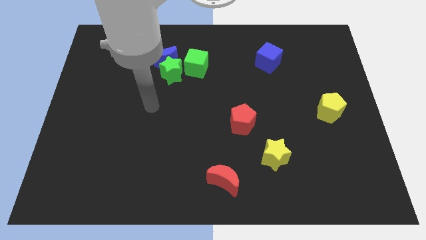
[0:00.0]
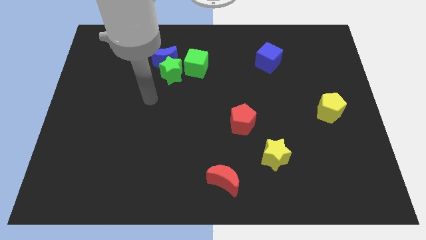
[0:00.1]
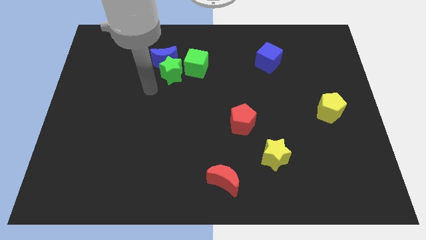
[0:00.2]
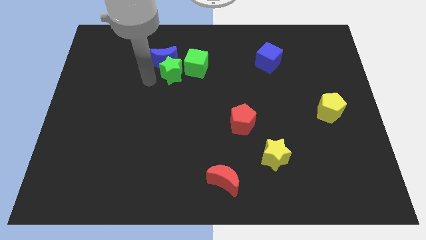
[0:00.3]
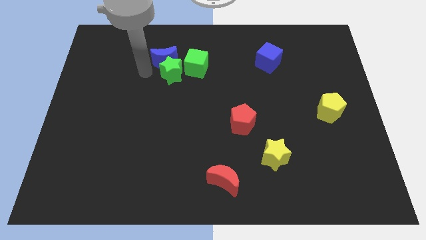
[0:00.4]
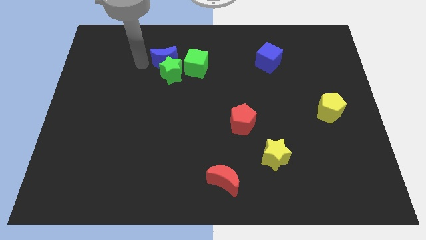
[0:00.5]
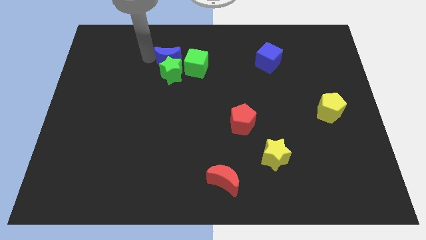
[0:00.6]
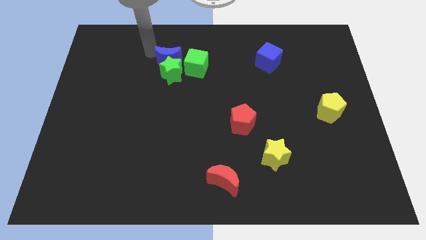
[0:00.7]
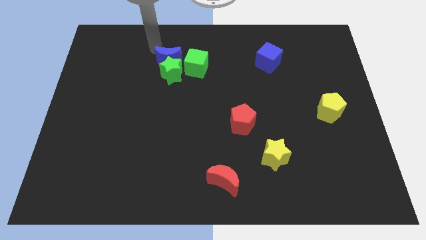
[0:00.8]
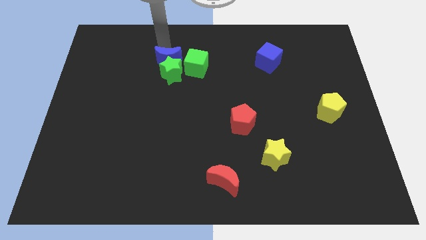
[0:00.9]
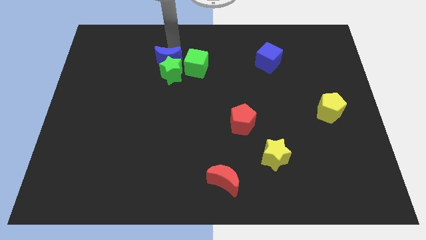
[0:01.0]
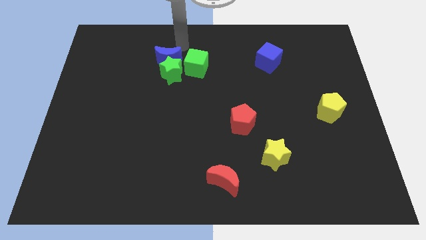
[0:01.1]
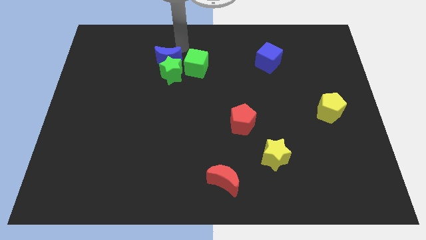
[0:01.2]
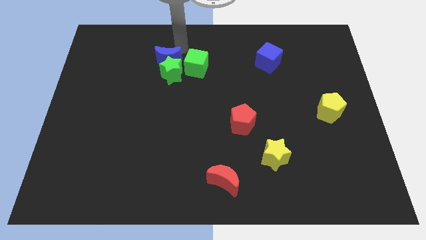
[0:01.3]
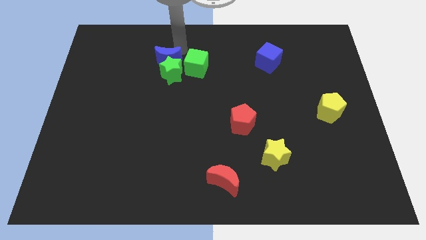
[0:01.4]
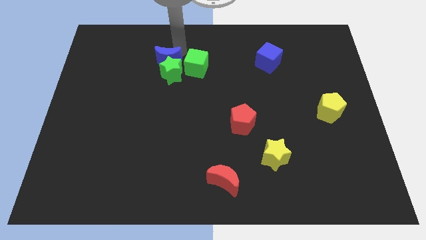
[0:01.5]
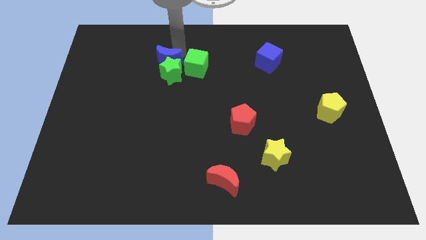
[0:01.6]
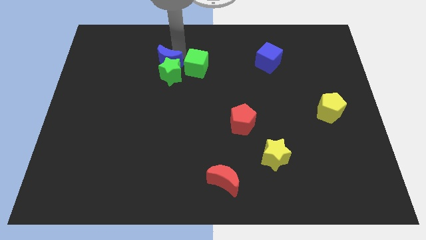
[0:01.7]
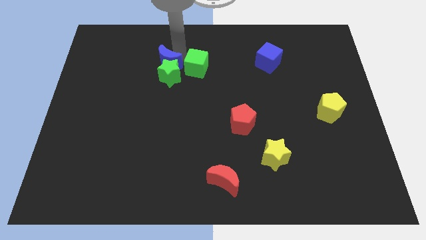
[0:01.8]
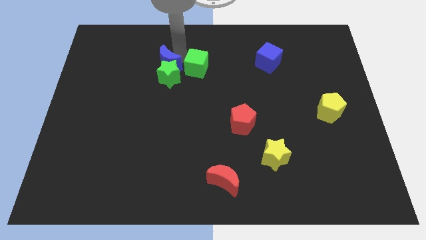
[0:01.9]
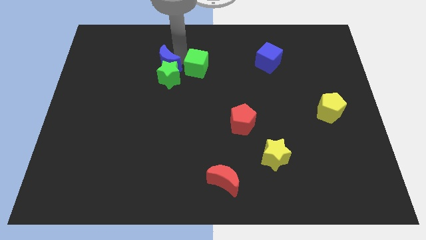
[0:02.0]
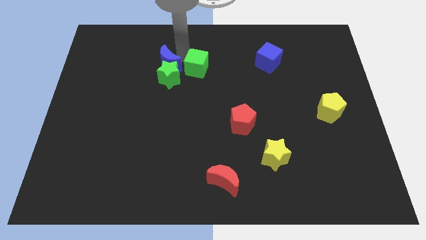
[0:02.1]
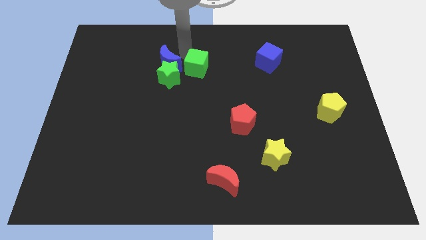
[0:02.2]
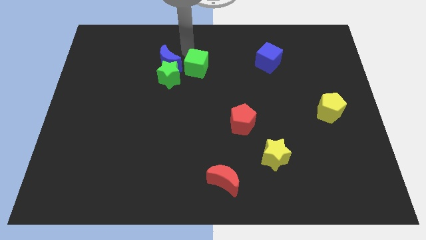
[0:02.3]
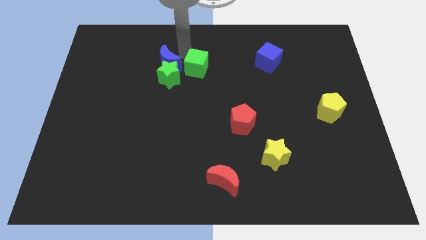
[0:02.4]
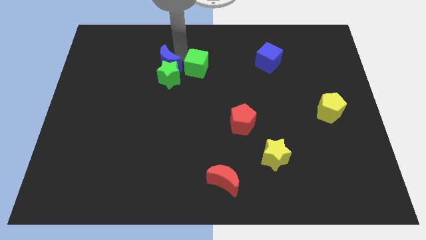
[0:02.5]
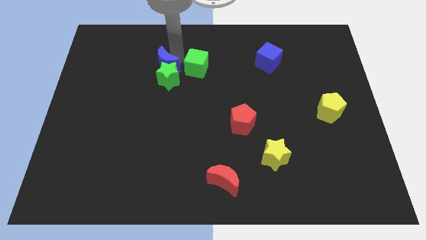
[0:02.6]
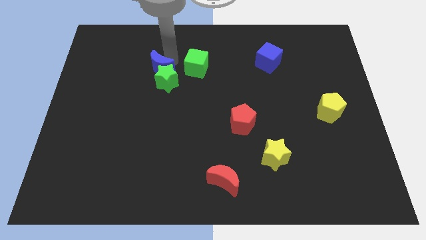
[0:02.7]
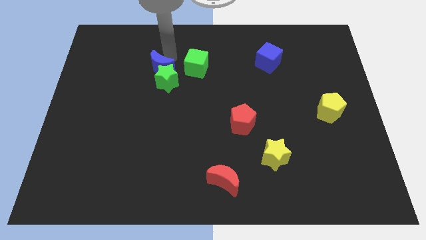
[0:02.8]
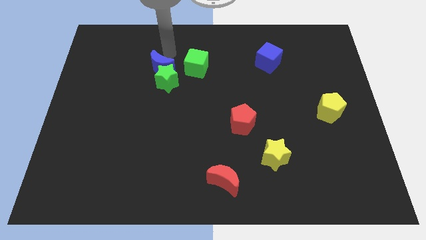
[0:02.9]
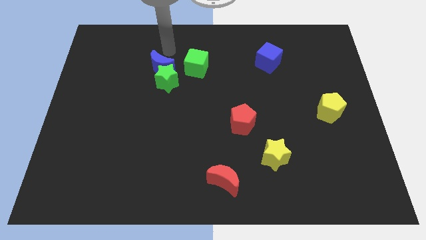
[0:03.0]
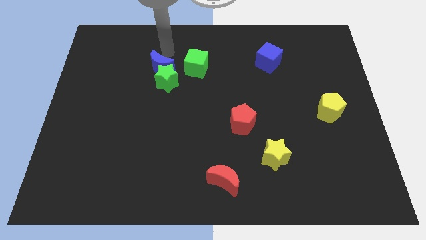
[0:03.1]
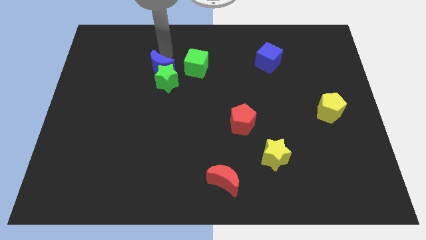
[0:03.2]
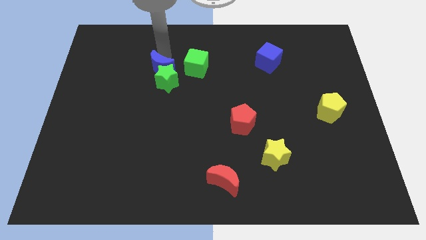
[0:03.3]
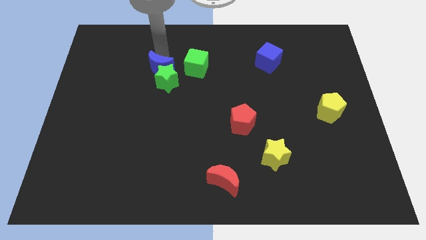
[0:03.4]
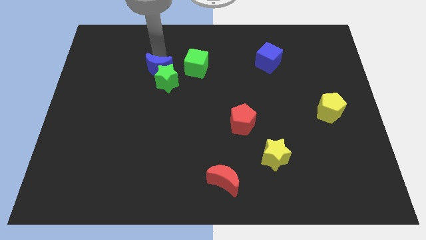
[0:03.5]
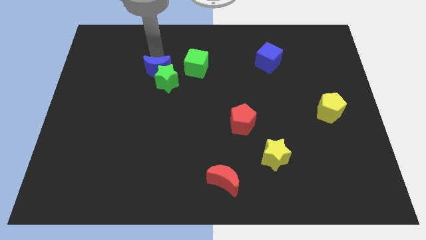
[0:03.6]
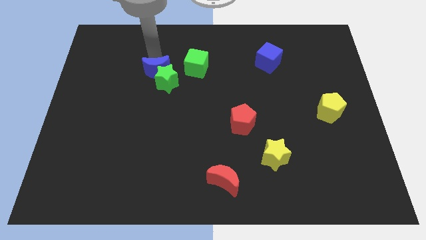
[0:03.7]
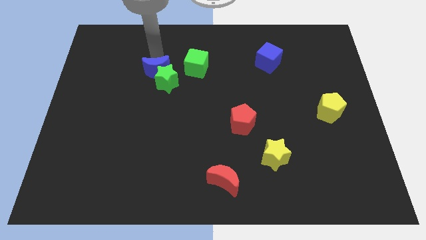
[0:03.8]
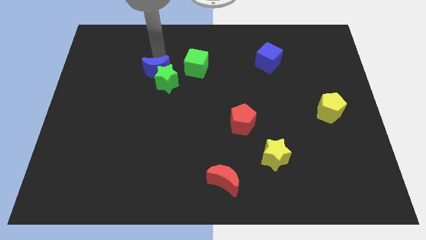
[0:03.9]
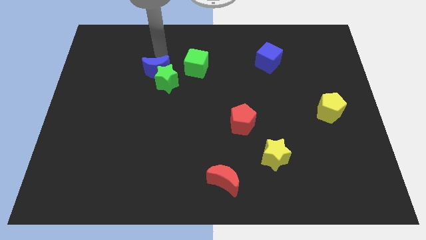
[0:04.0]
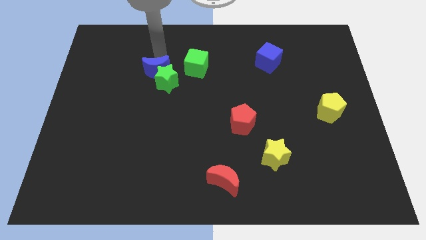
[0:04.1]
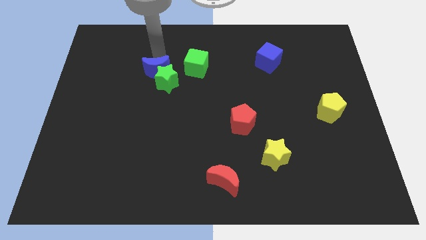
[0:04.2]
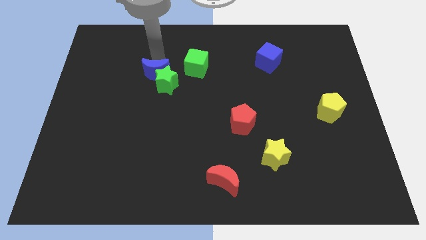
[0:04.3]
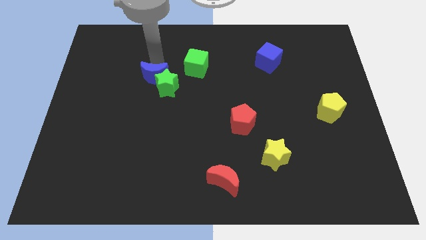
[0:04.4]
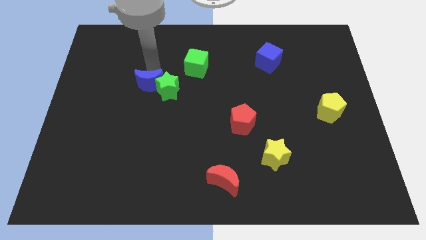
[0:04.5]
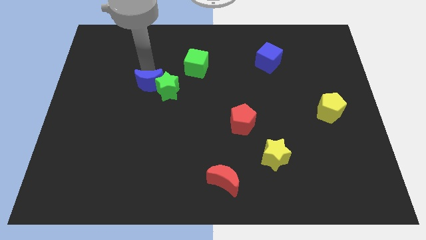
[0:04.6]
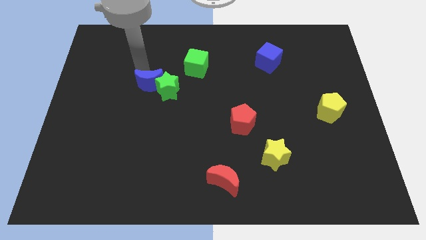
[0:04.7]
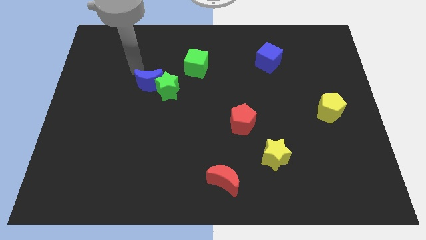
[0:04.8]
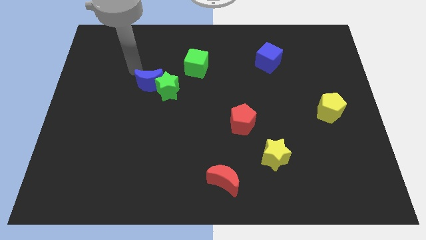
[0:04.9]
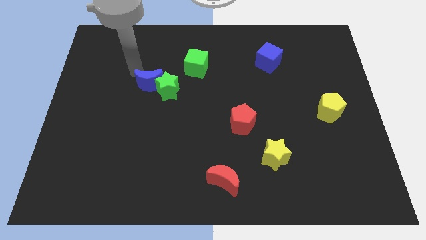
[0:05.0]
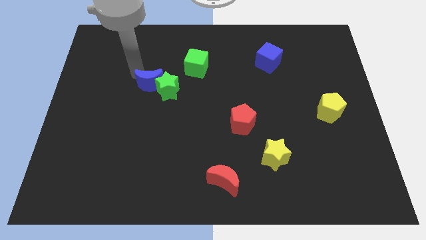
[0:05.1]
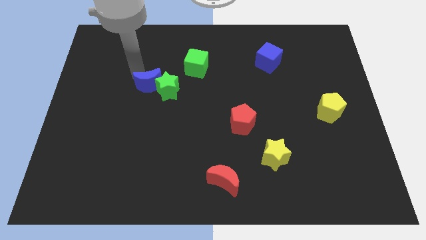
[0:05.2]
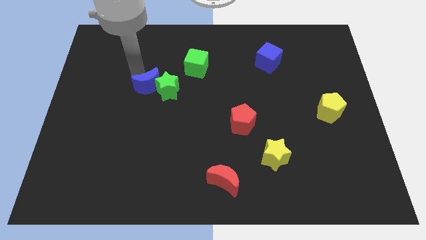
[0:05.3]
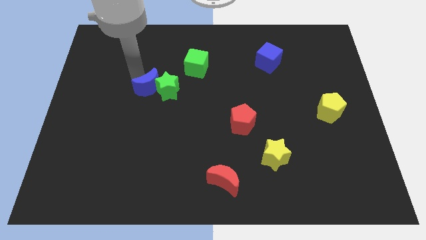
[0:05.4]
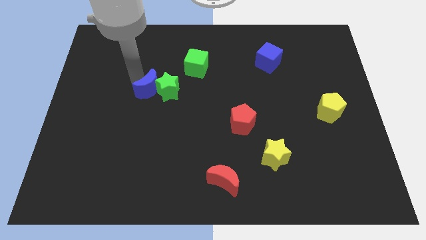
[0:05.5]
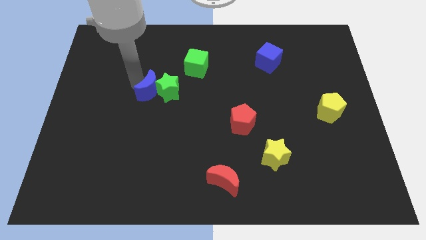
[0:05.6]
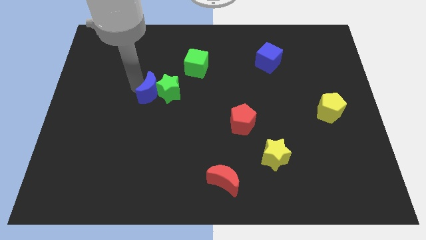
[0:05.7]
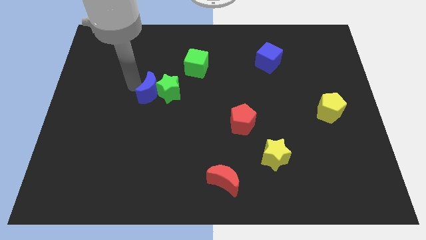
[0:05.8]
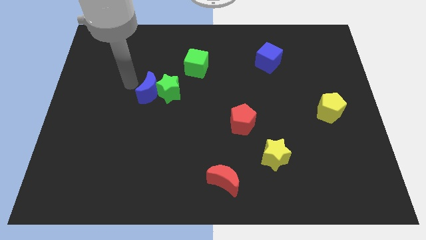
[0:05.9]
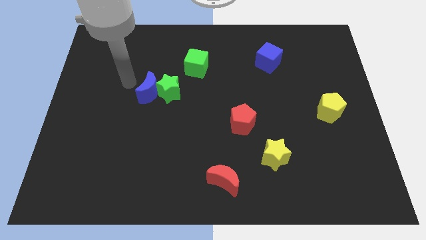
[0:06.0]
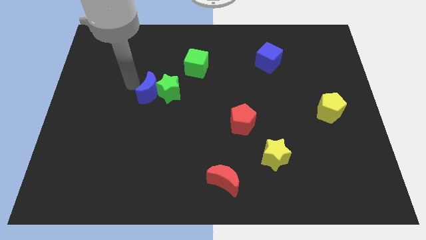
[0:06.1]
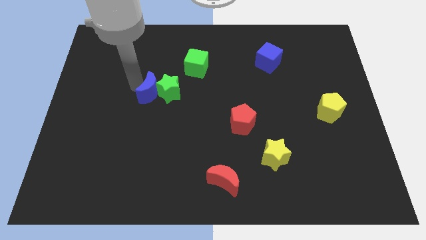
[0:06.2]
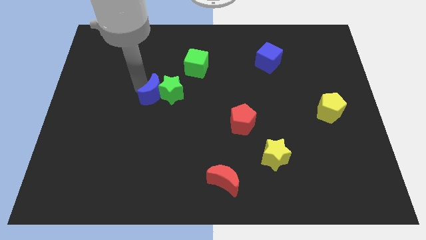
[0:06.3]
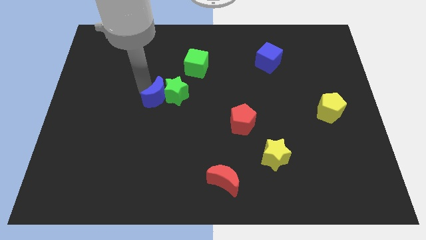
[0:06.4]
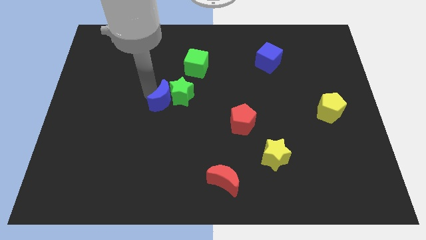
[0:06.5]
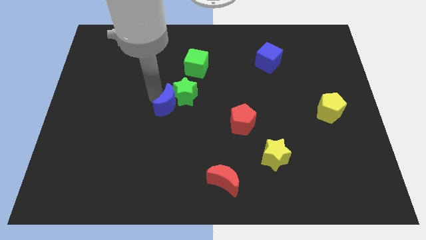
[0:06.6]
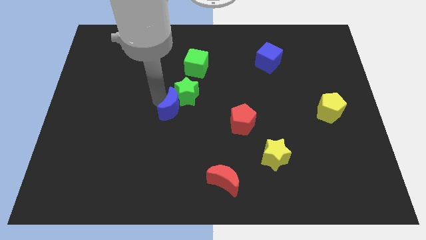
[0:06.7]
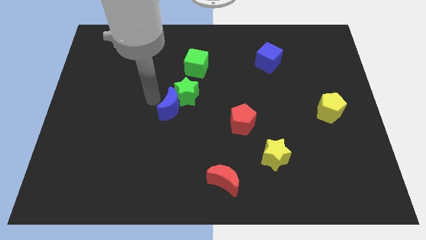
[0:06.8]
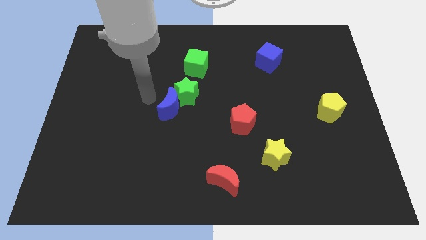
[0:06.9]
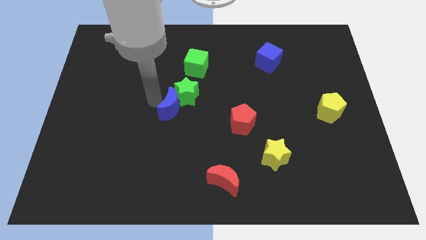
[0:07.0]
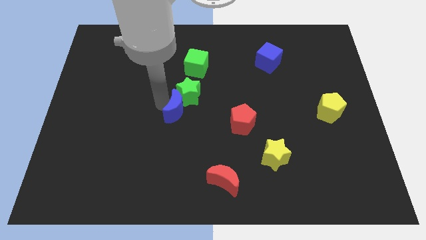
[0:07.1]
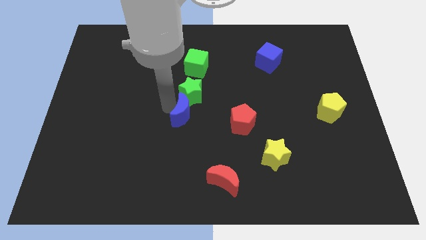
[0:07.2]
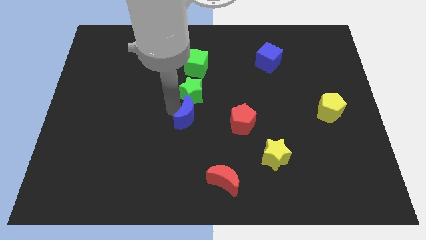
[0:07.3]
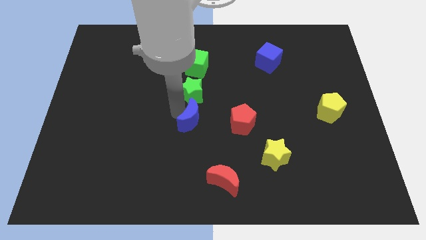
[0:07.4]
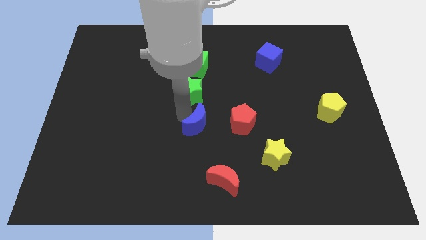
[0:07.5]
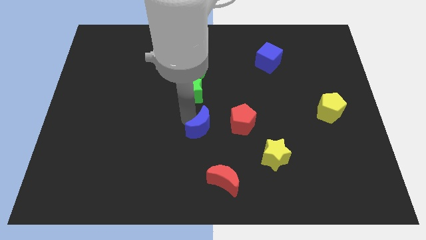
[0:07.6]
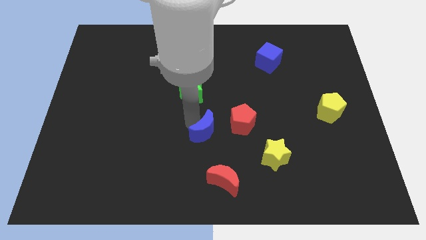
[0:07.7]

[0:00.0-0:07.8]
push the blue moon downwards and to the right

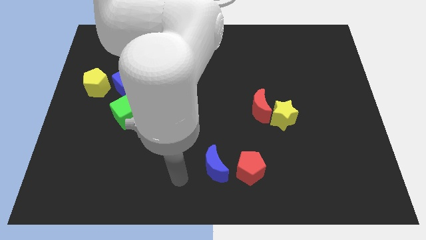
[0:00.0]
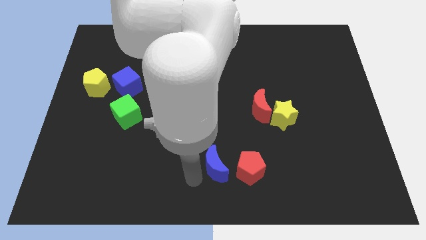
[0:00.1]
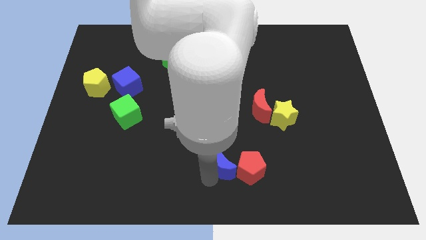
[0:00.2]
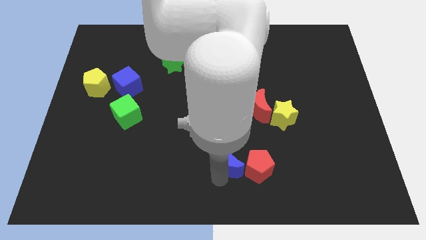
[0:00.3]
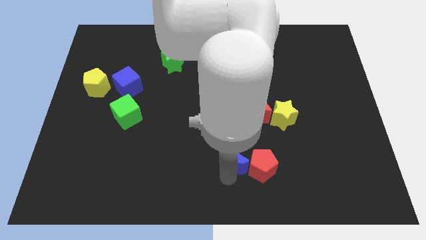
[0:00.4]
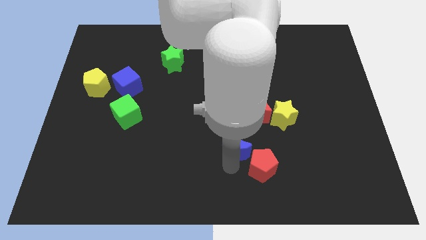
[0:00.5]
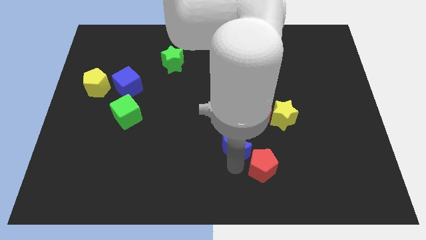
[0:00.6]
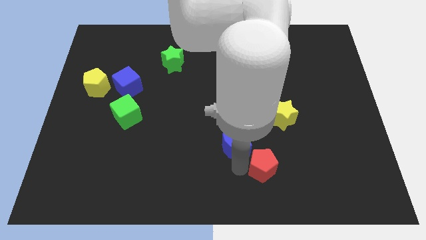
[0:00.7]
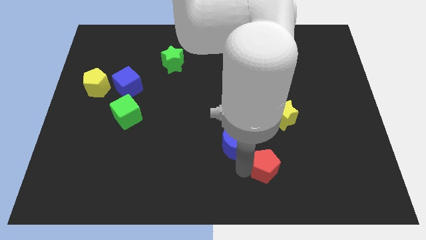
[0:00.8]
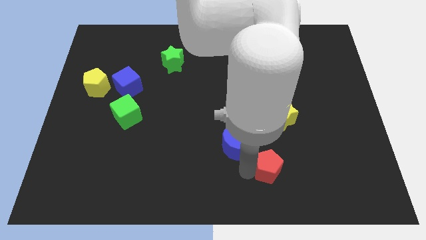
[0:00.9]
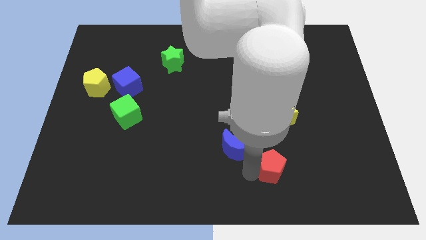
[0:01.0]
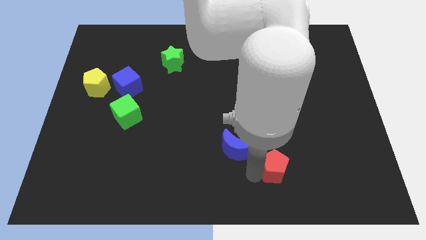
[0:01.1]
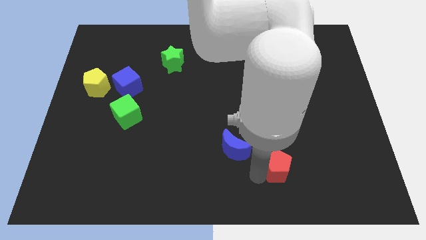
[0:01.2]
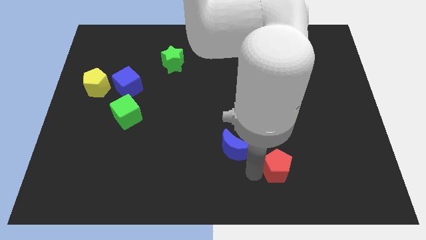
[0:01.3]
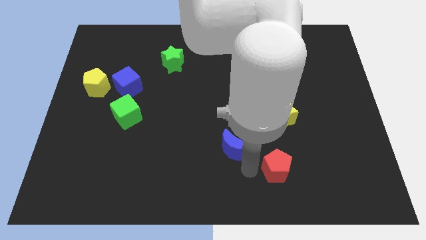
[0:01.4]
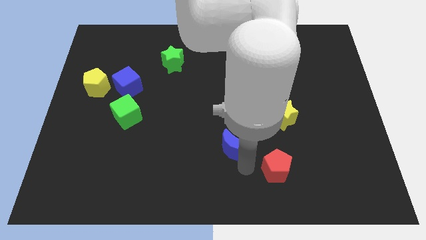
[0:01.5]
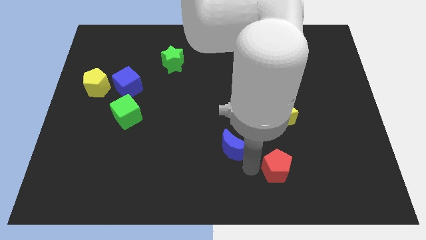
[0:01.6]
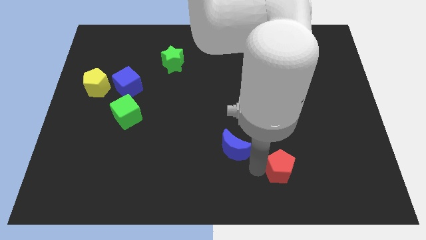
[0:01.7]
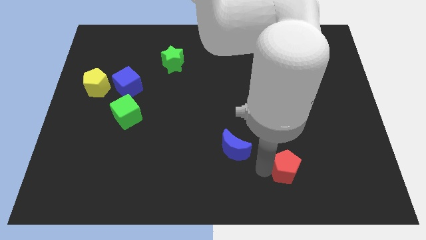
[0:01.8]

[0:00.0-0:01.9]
slightly push the red pentagon to the right
